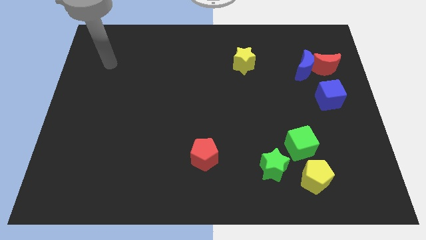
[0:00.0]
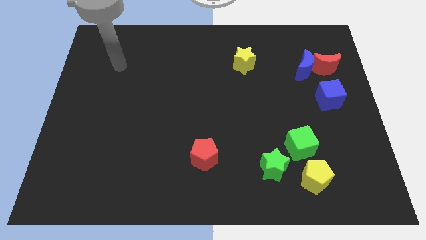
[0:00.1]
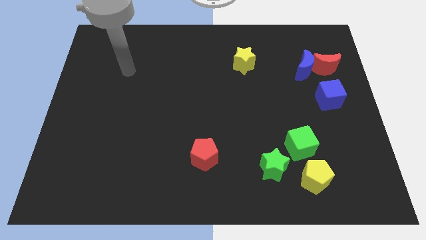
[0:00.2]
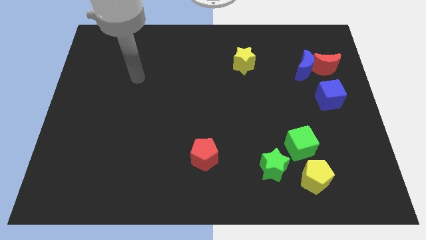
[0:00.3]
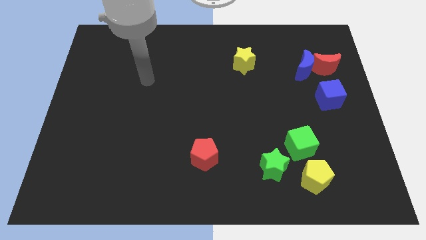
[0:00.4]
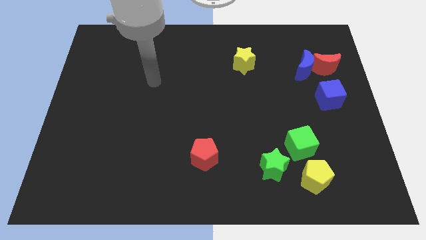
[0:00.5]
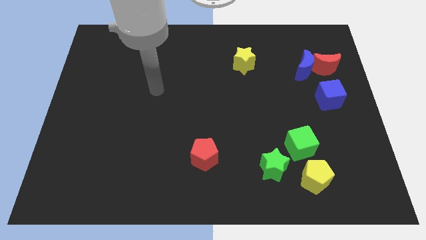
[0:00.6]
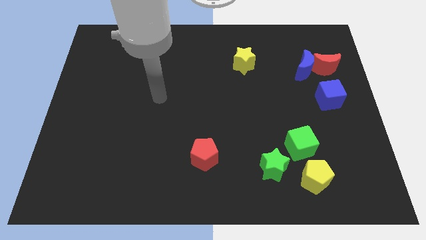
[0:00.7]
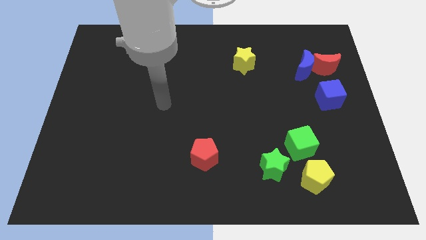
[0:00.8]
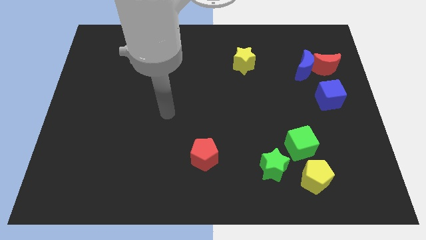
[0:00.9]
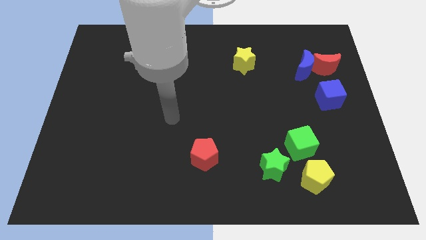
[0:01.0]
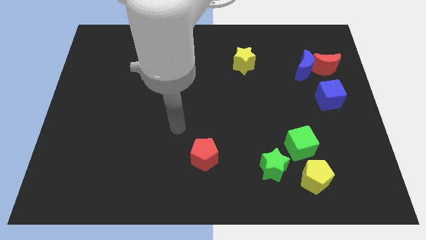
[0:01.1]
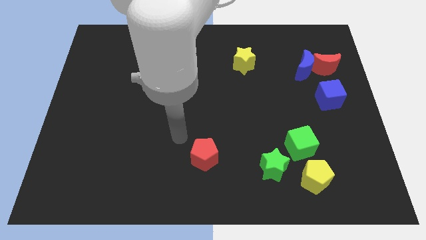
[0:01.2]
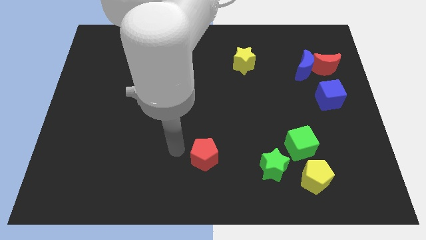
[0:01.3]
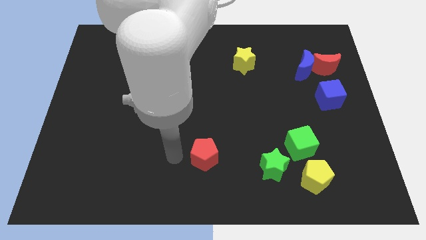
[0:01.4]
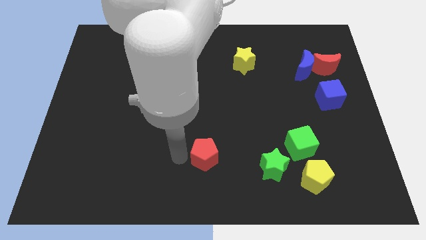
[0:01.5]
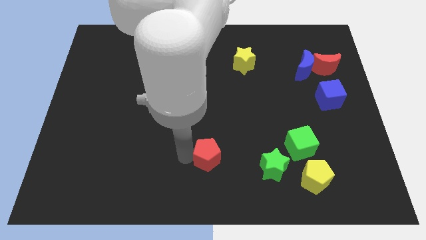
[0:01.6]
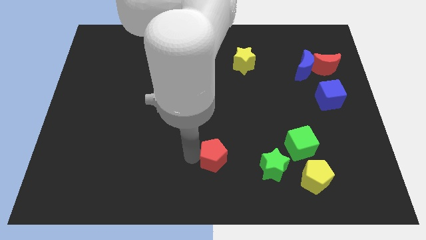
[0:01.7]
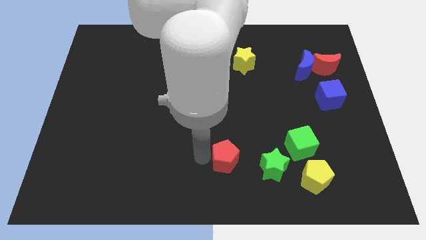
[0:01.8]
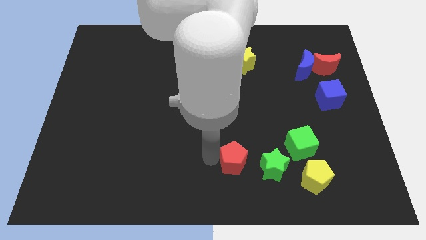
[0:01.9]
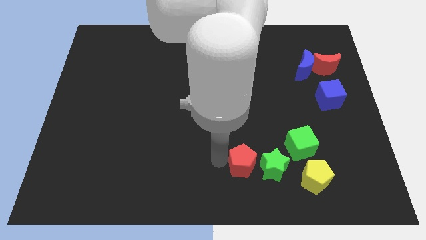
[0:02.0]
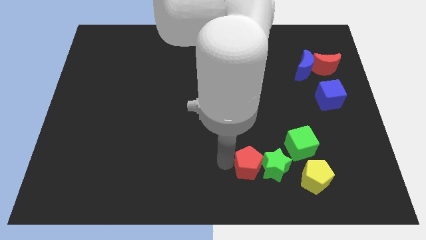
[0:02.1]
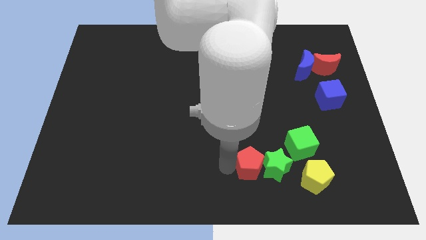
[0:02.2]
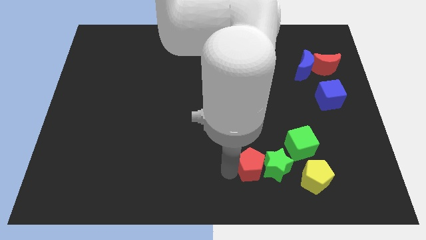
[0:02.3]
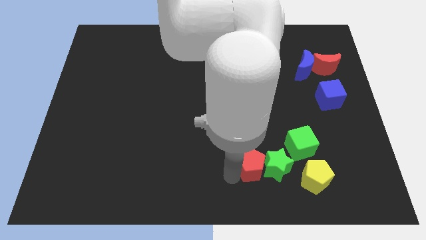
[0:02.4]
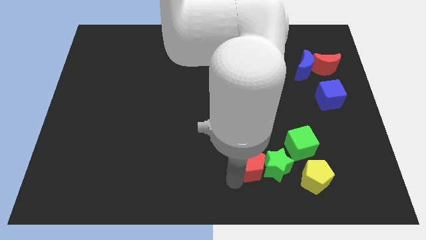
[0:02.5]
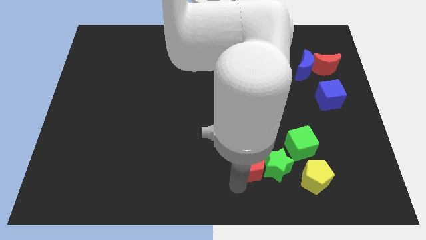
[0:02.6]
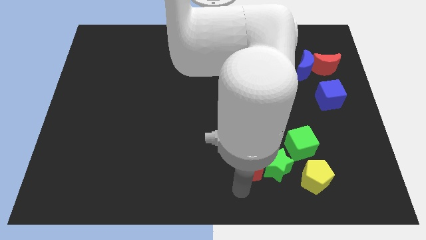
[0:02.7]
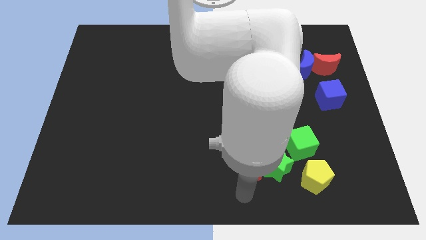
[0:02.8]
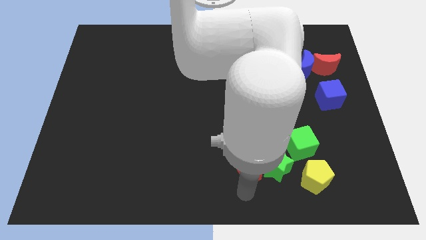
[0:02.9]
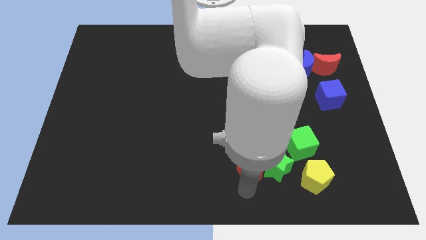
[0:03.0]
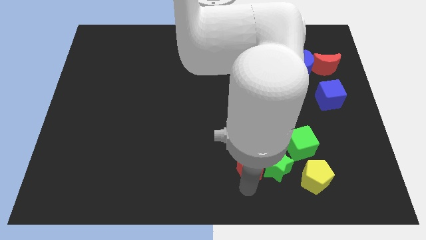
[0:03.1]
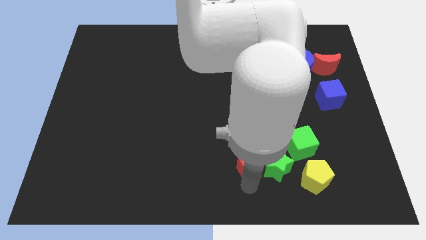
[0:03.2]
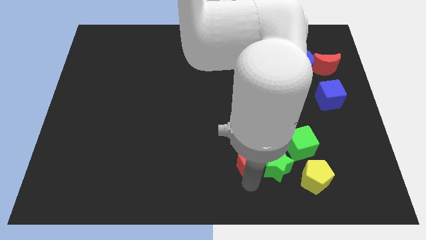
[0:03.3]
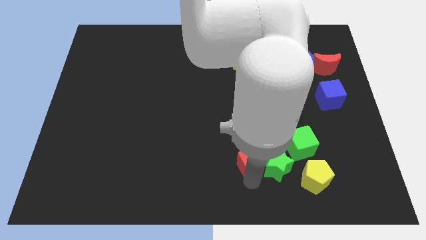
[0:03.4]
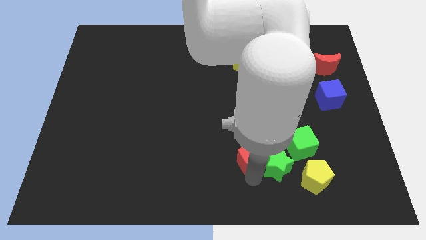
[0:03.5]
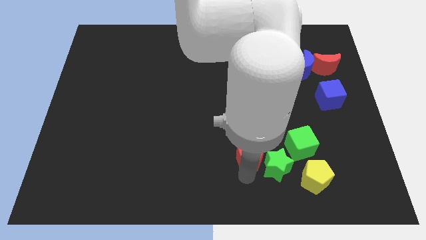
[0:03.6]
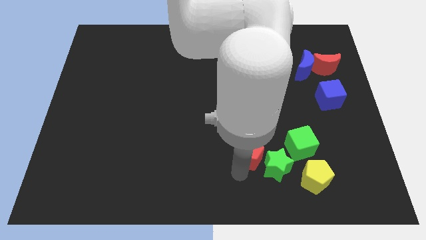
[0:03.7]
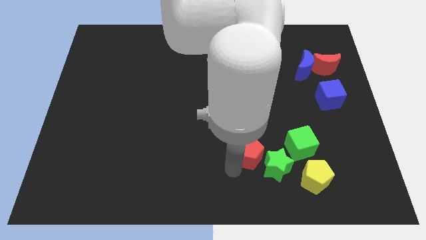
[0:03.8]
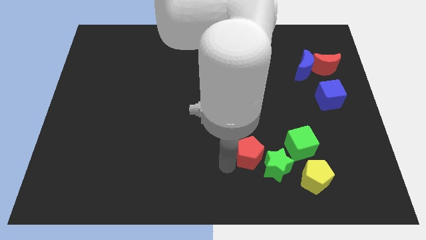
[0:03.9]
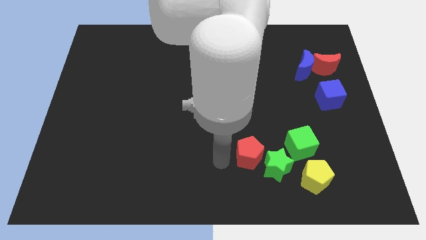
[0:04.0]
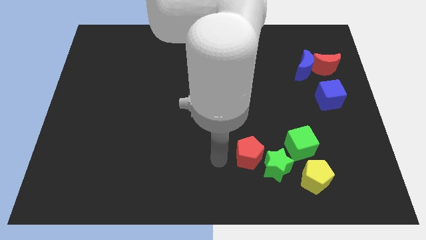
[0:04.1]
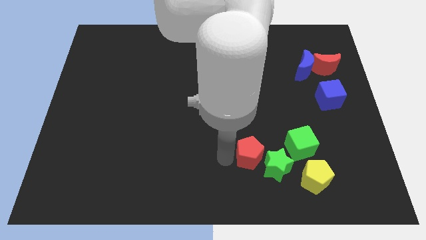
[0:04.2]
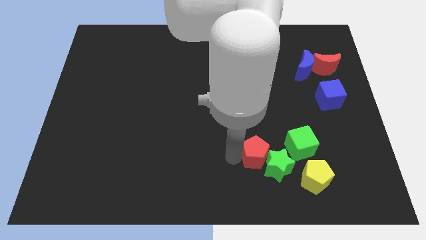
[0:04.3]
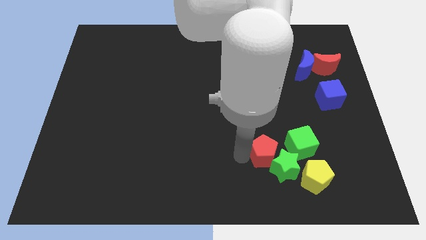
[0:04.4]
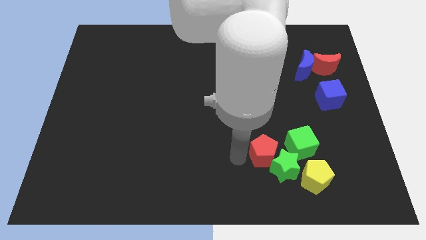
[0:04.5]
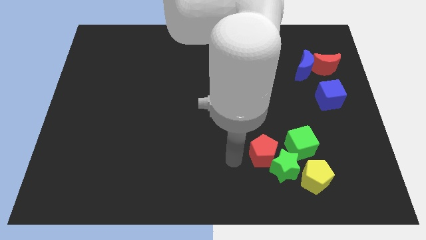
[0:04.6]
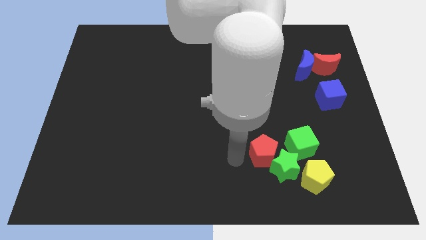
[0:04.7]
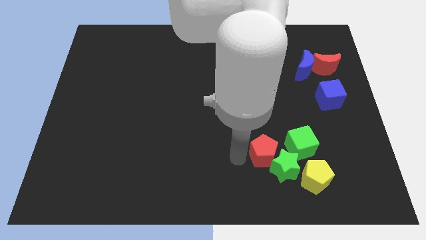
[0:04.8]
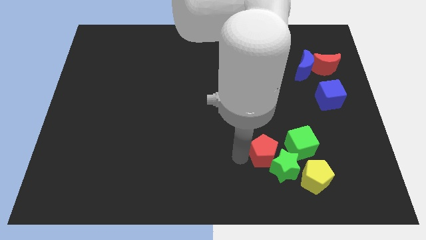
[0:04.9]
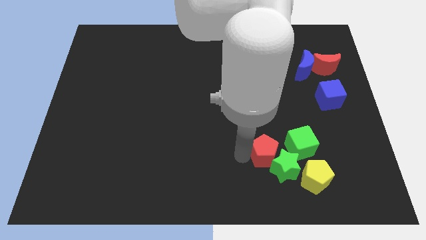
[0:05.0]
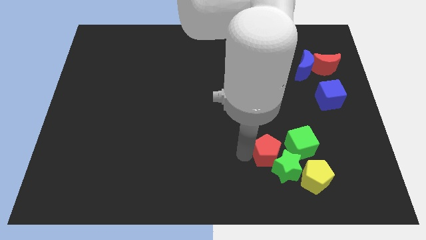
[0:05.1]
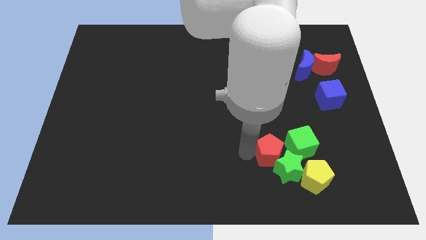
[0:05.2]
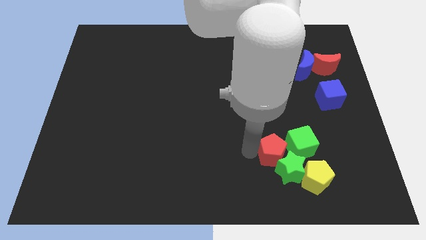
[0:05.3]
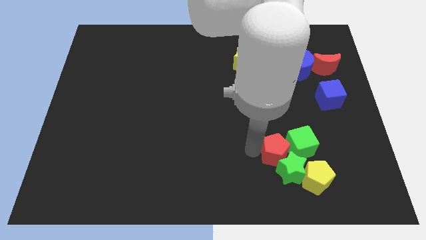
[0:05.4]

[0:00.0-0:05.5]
move the red pentagon to the green cube
